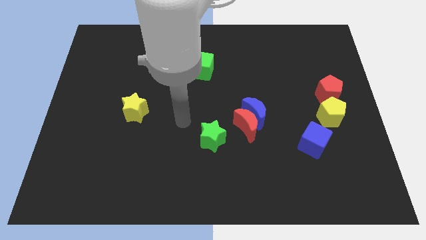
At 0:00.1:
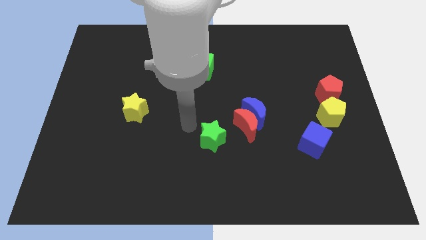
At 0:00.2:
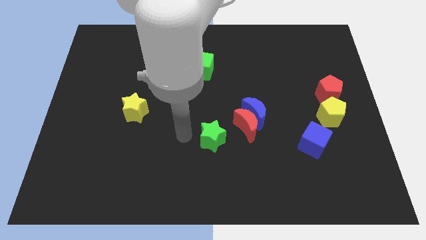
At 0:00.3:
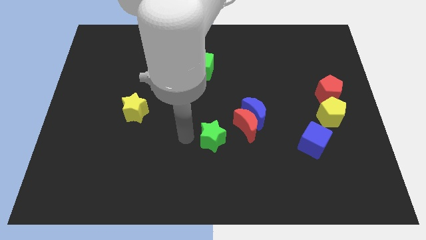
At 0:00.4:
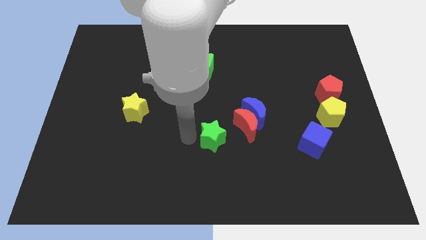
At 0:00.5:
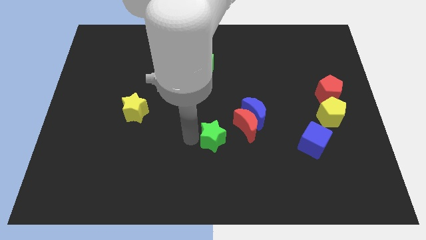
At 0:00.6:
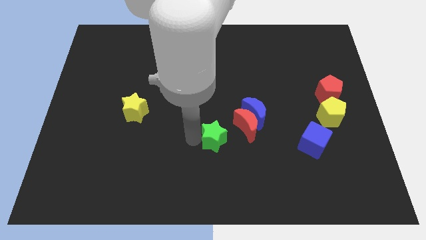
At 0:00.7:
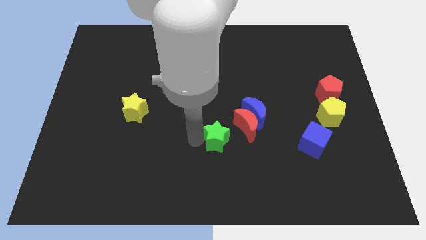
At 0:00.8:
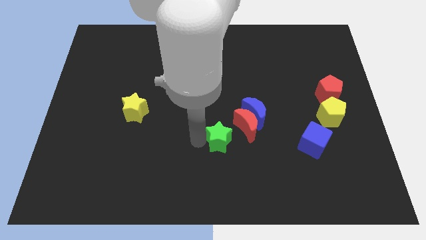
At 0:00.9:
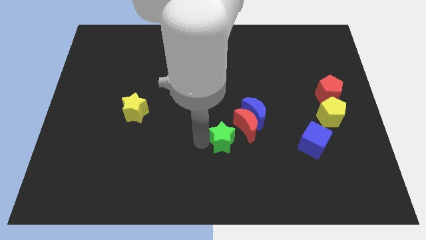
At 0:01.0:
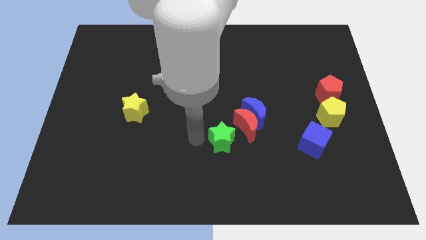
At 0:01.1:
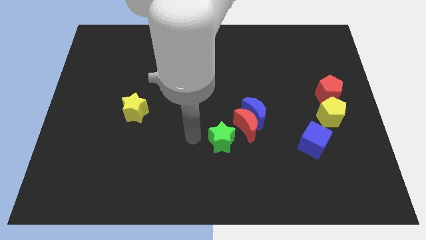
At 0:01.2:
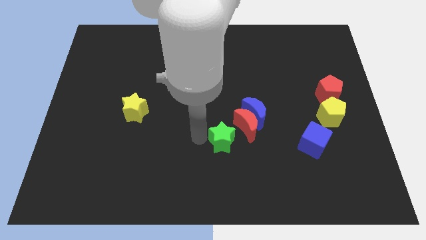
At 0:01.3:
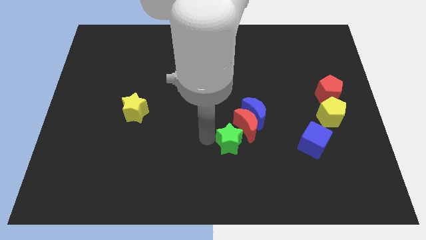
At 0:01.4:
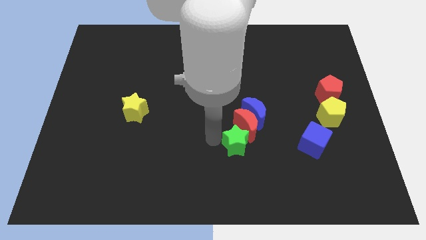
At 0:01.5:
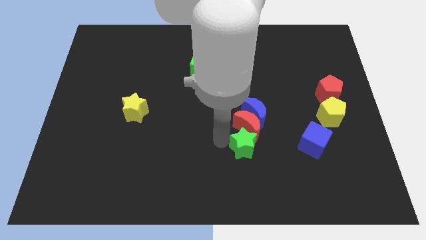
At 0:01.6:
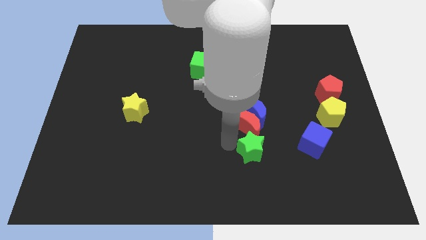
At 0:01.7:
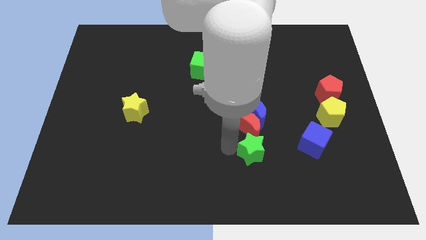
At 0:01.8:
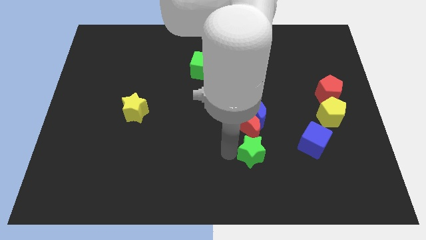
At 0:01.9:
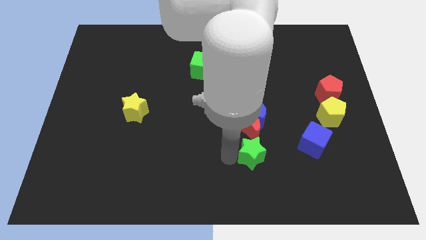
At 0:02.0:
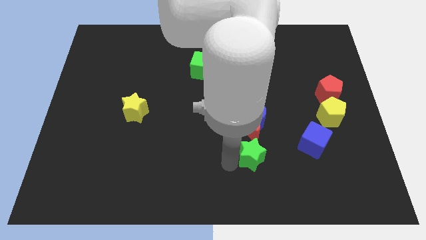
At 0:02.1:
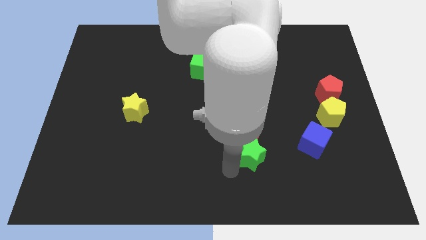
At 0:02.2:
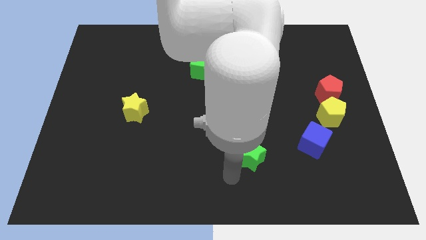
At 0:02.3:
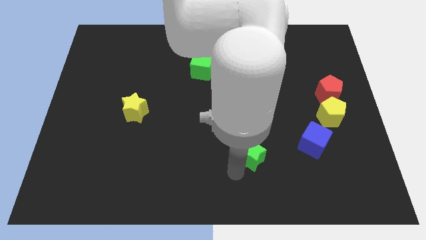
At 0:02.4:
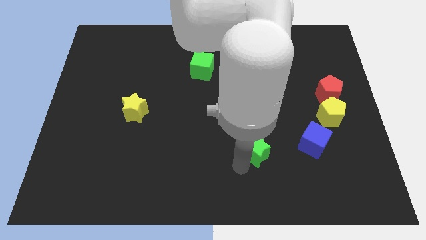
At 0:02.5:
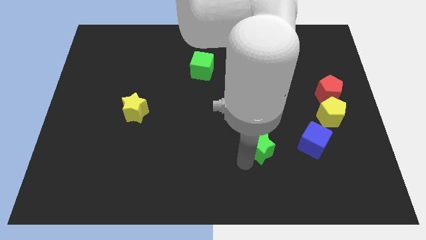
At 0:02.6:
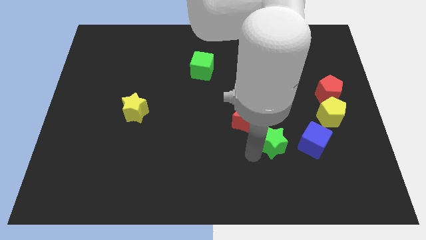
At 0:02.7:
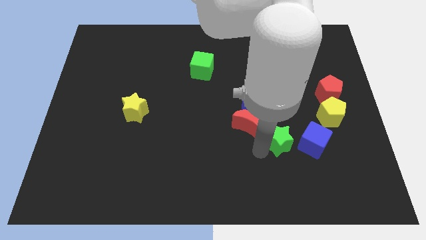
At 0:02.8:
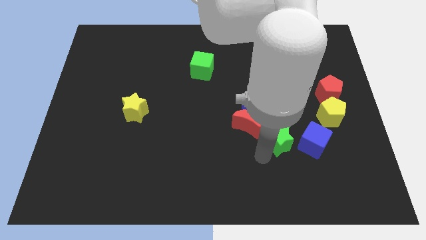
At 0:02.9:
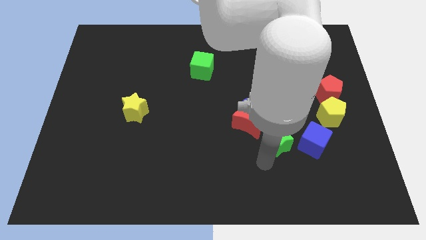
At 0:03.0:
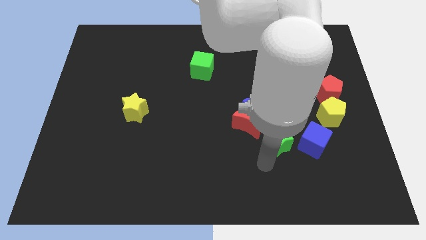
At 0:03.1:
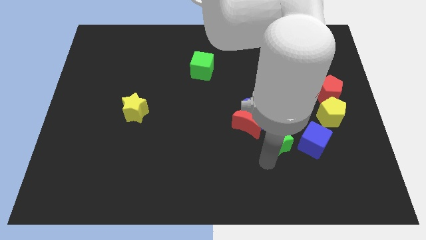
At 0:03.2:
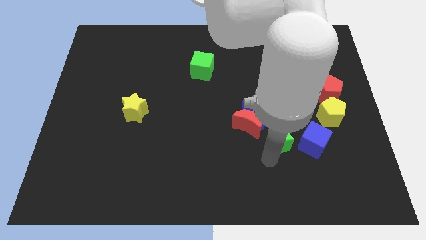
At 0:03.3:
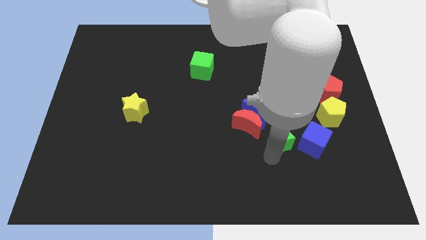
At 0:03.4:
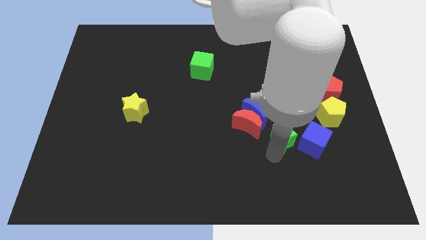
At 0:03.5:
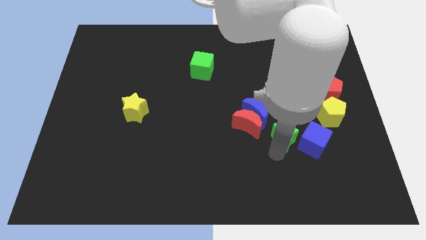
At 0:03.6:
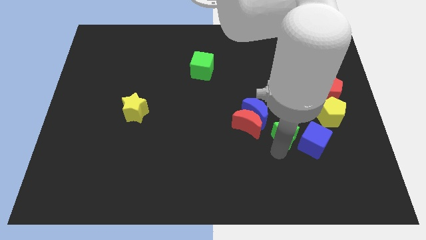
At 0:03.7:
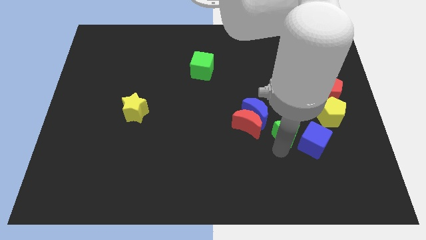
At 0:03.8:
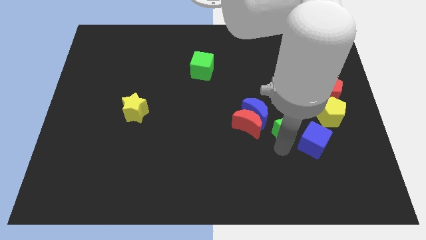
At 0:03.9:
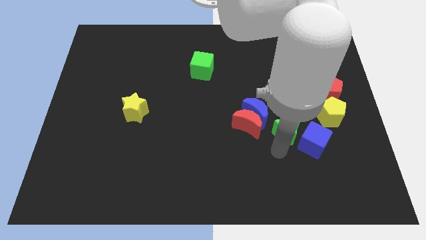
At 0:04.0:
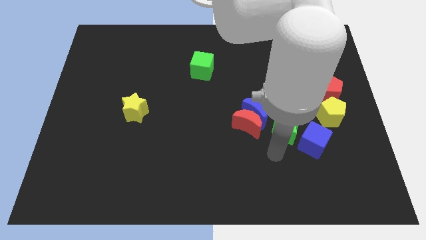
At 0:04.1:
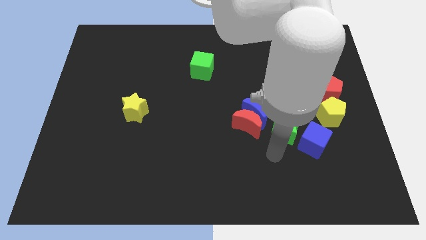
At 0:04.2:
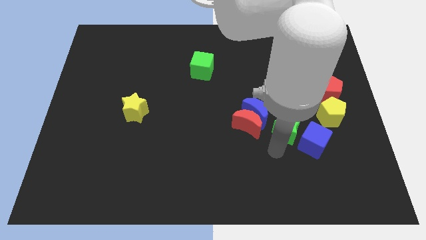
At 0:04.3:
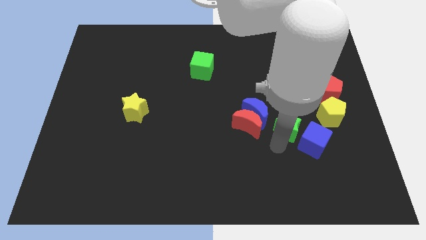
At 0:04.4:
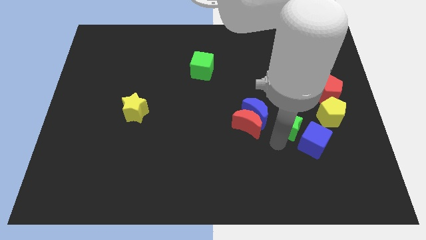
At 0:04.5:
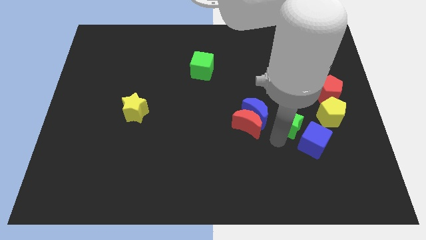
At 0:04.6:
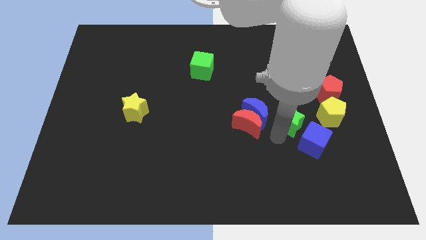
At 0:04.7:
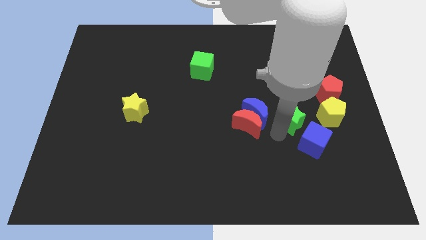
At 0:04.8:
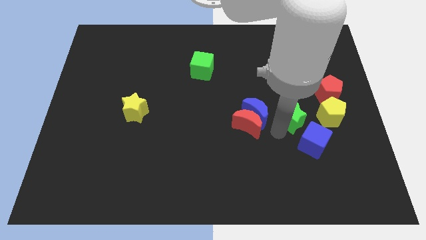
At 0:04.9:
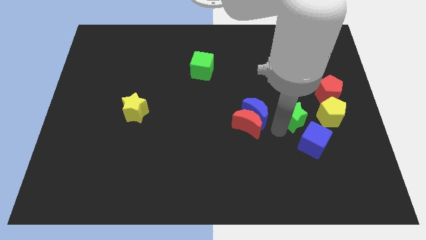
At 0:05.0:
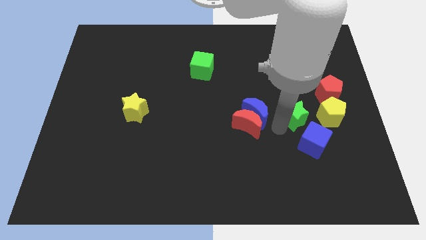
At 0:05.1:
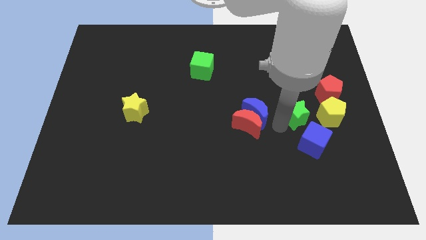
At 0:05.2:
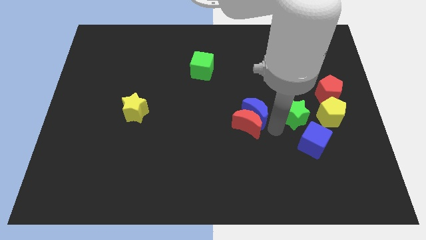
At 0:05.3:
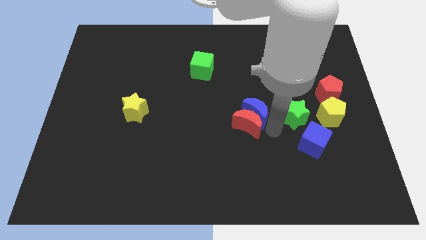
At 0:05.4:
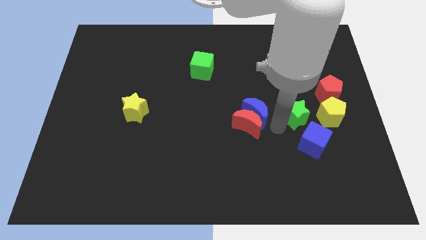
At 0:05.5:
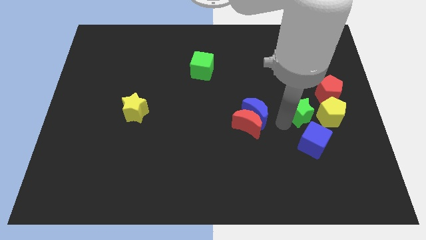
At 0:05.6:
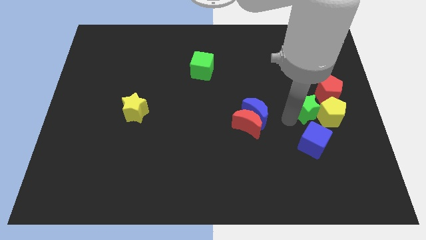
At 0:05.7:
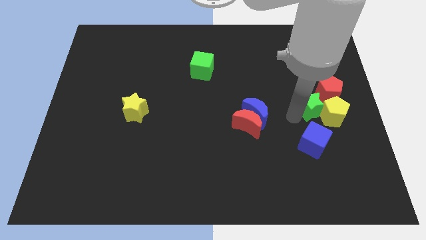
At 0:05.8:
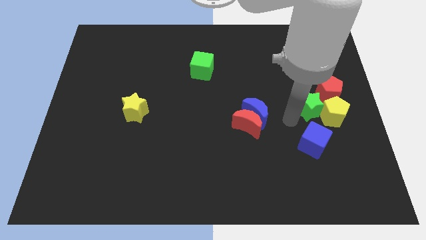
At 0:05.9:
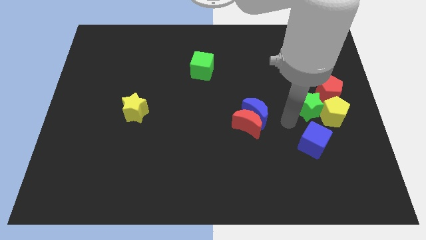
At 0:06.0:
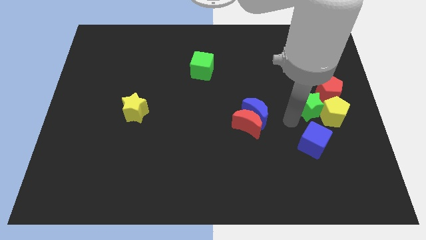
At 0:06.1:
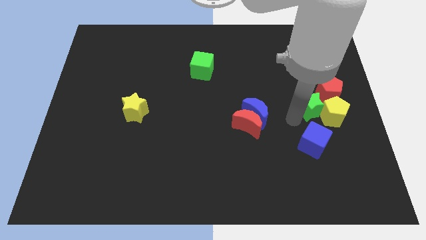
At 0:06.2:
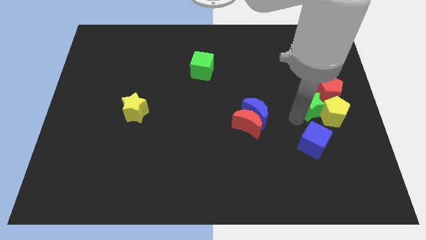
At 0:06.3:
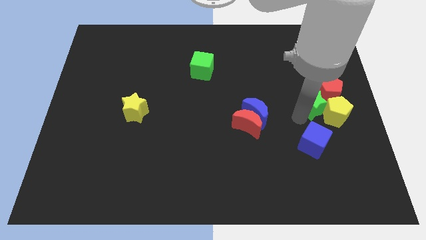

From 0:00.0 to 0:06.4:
put the green star next to the red pentagon

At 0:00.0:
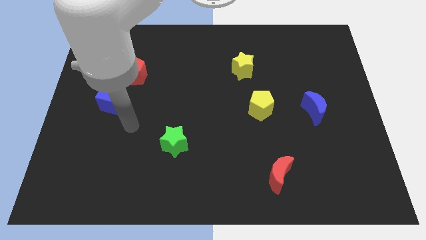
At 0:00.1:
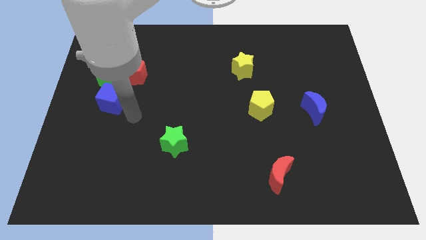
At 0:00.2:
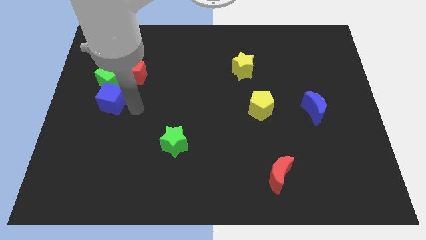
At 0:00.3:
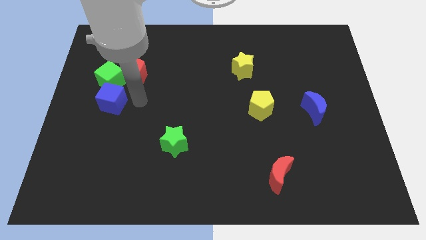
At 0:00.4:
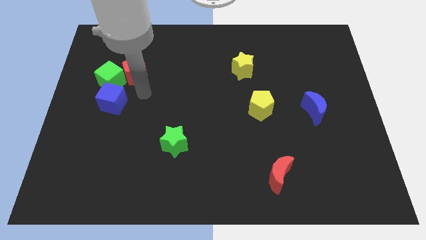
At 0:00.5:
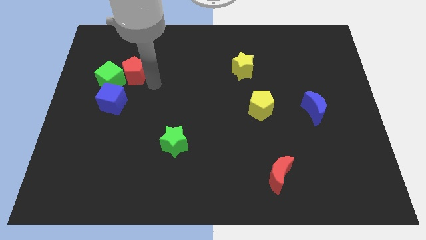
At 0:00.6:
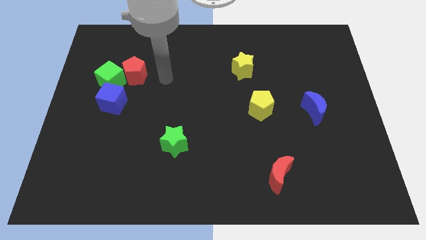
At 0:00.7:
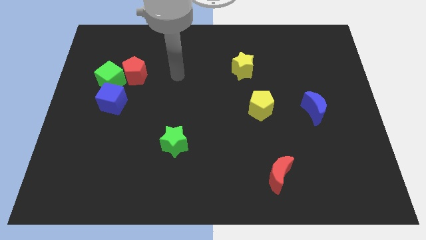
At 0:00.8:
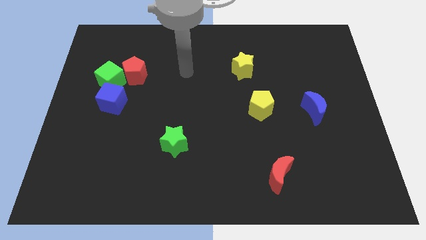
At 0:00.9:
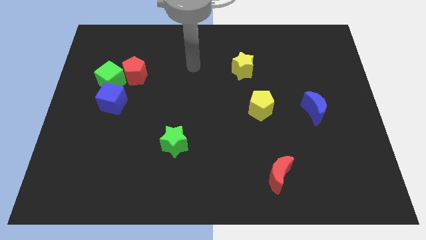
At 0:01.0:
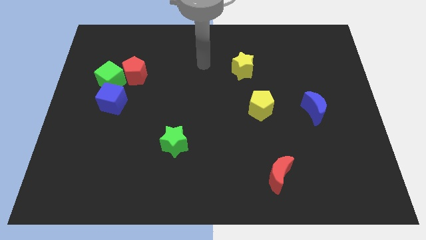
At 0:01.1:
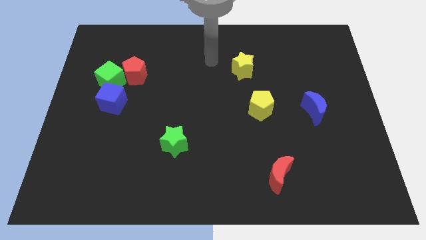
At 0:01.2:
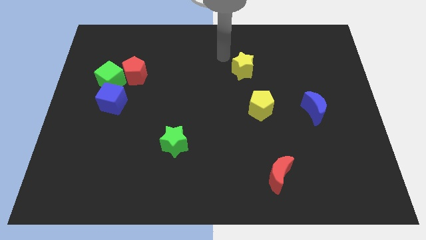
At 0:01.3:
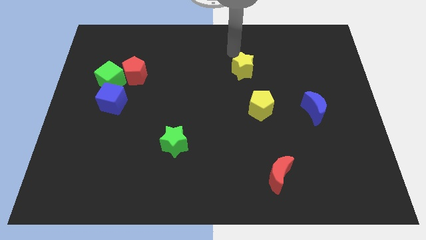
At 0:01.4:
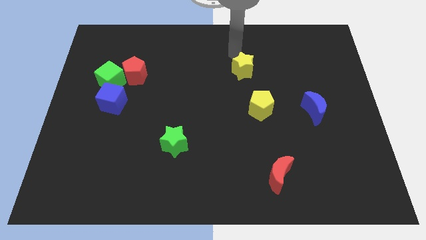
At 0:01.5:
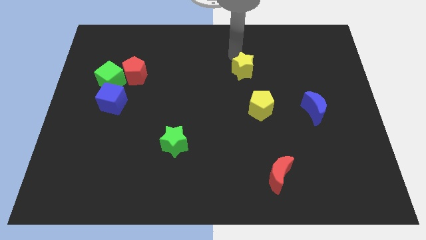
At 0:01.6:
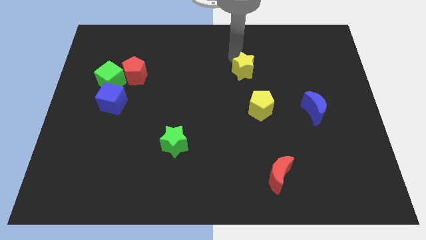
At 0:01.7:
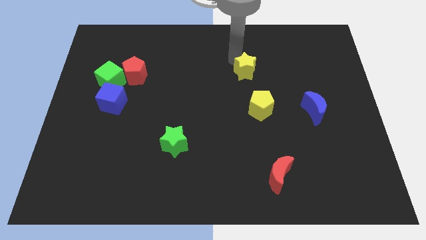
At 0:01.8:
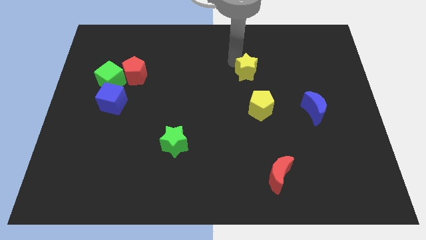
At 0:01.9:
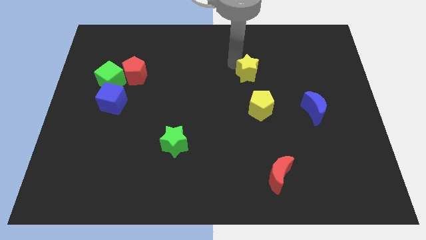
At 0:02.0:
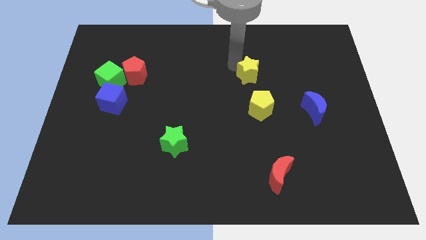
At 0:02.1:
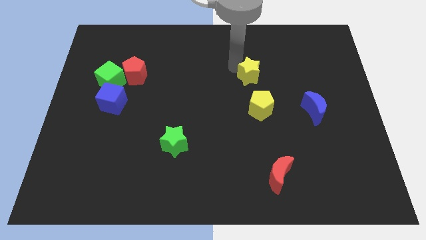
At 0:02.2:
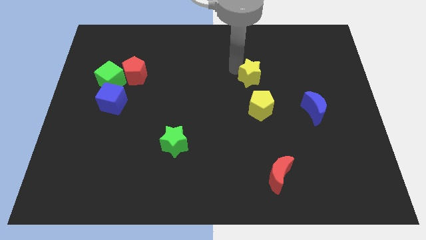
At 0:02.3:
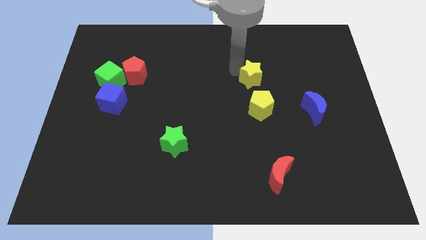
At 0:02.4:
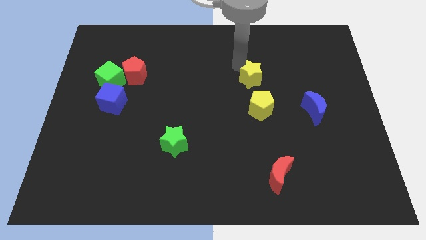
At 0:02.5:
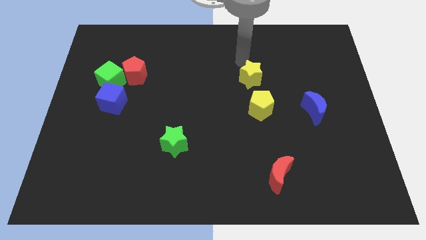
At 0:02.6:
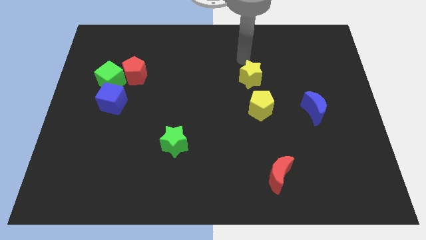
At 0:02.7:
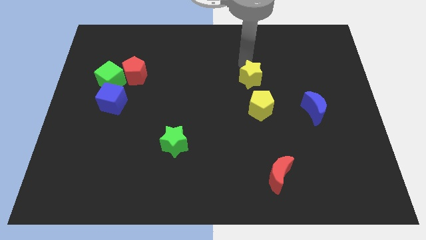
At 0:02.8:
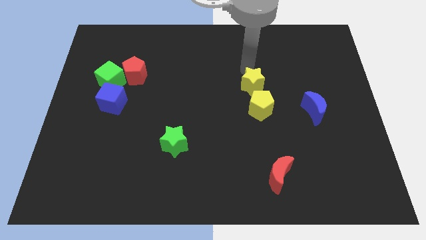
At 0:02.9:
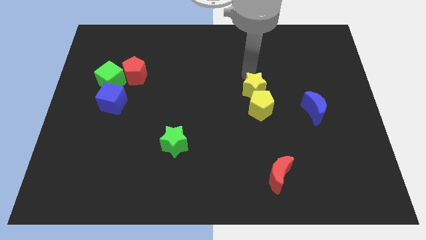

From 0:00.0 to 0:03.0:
move the yellow star to the yellow pentagon
